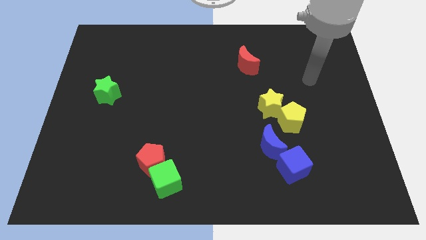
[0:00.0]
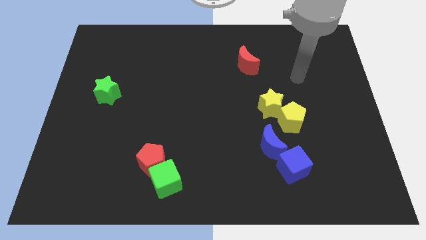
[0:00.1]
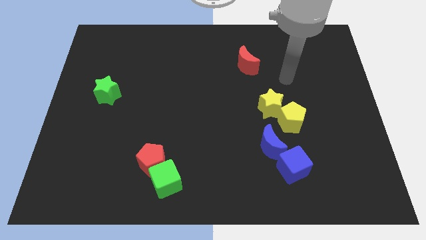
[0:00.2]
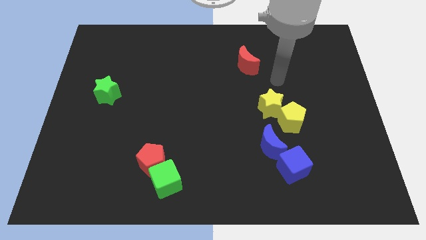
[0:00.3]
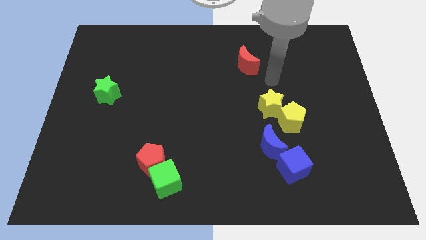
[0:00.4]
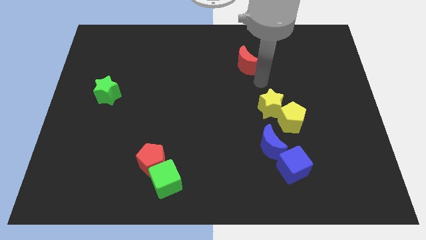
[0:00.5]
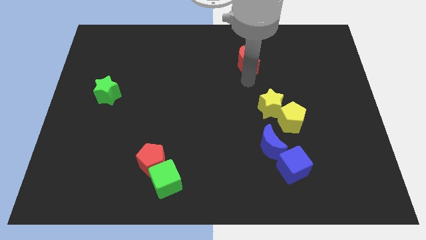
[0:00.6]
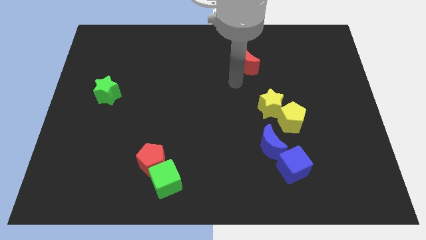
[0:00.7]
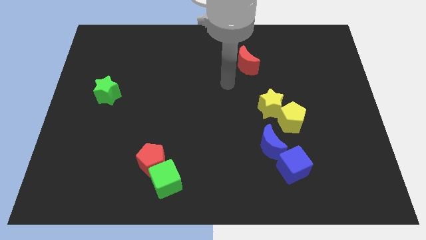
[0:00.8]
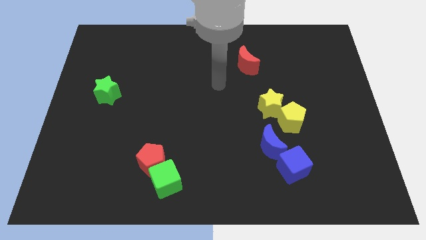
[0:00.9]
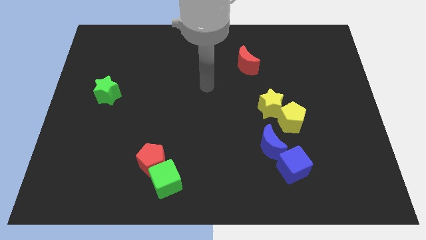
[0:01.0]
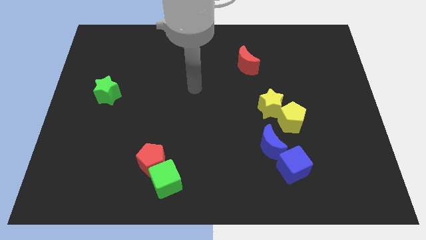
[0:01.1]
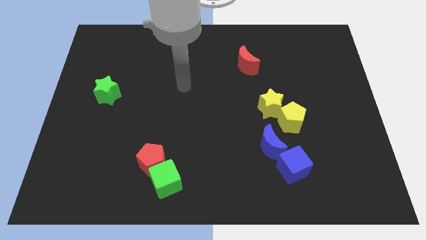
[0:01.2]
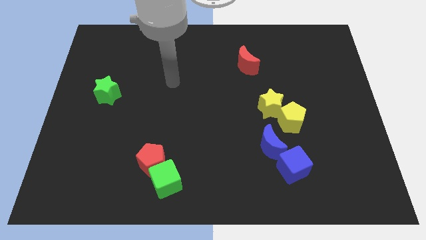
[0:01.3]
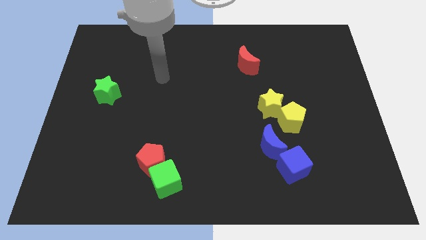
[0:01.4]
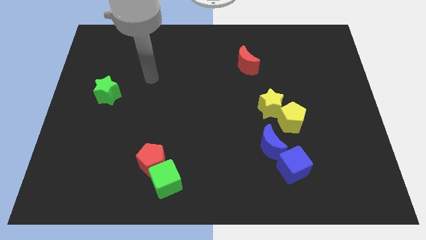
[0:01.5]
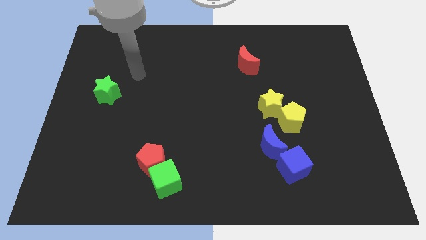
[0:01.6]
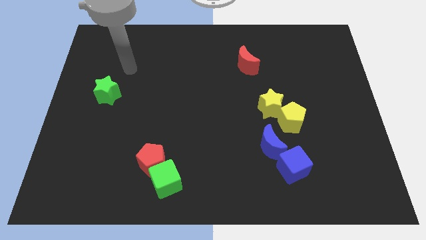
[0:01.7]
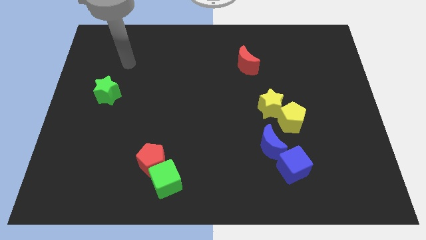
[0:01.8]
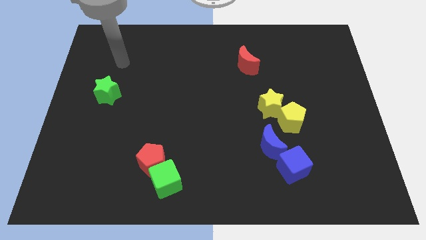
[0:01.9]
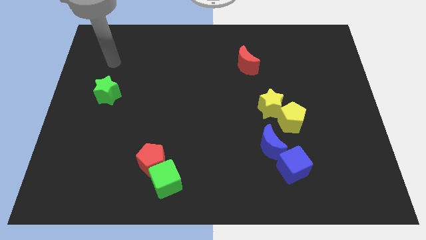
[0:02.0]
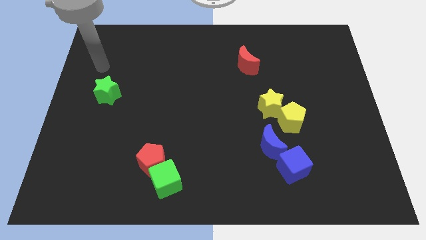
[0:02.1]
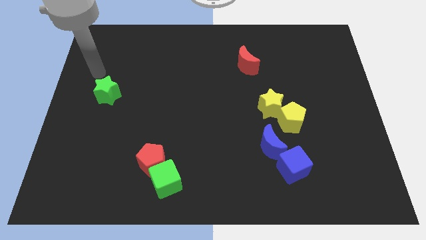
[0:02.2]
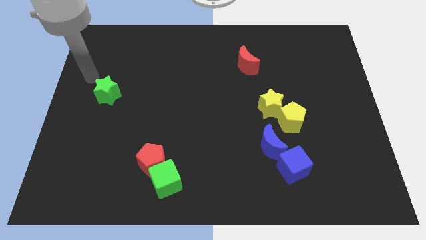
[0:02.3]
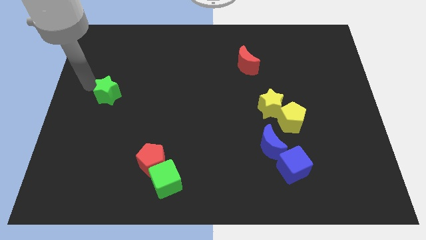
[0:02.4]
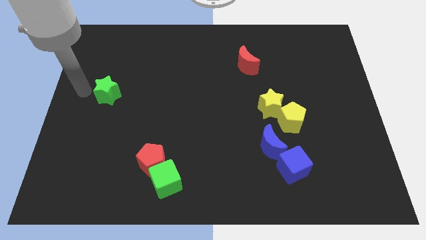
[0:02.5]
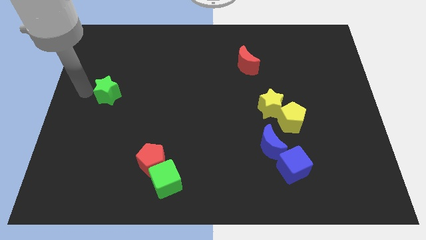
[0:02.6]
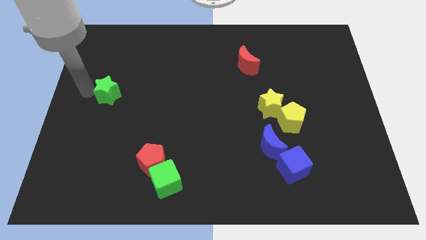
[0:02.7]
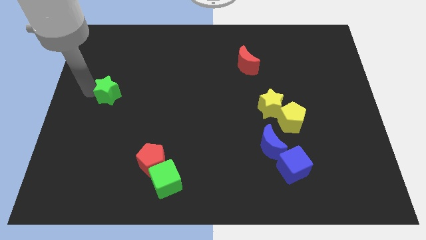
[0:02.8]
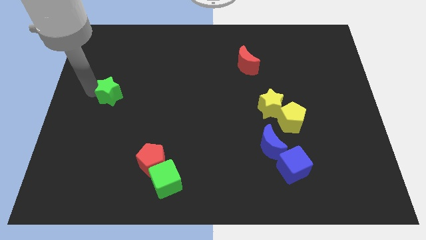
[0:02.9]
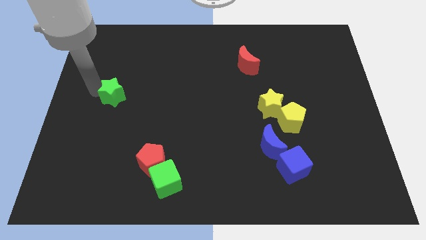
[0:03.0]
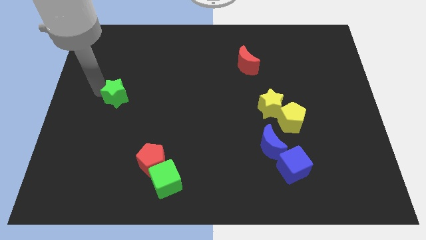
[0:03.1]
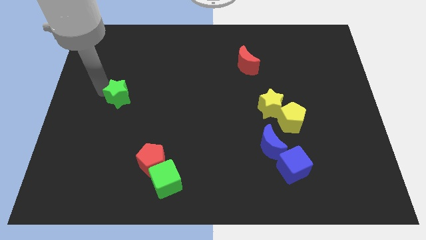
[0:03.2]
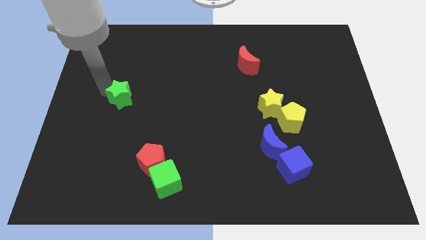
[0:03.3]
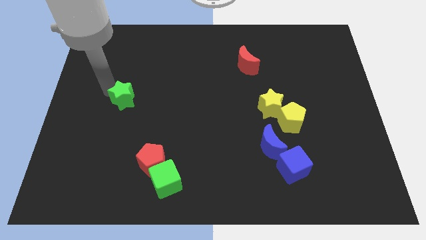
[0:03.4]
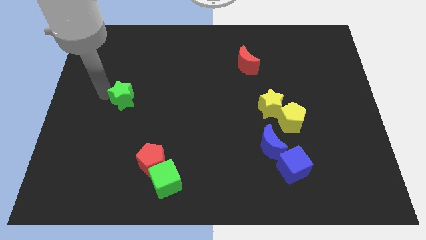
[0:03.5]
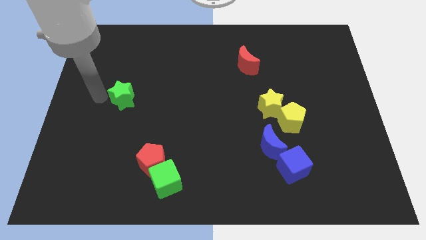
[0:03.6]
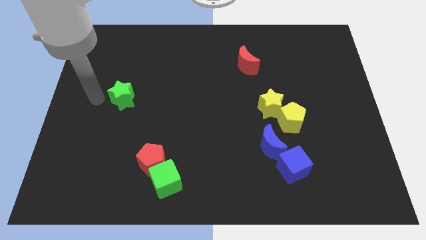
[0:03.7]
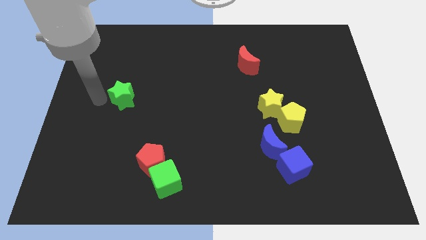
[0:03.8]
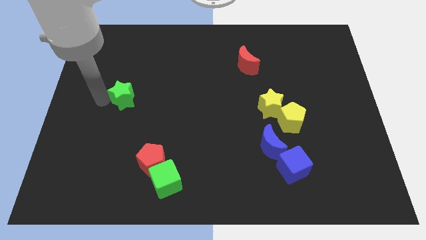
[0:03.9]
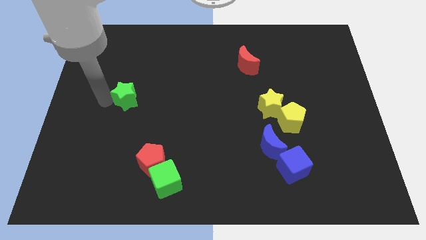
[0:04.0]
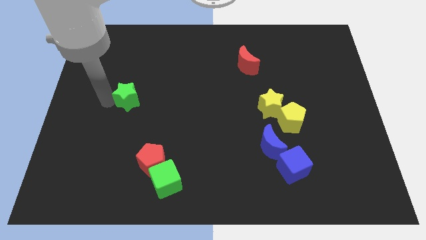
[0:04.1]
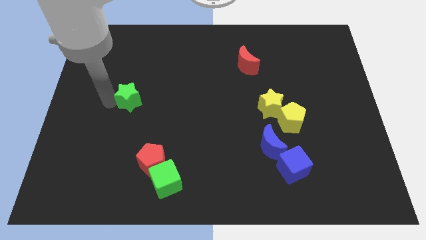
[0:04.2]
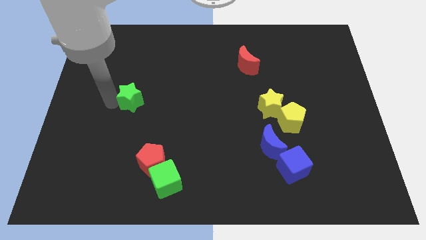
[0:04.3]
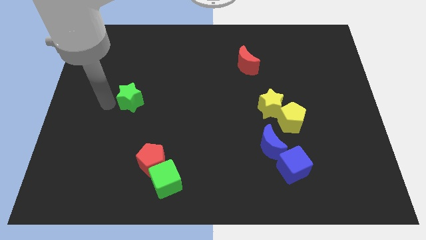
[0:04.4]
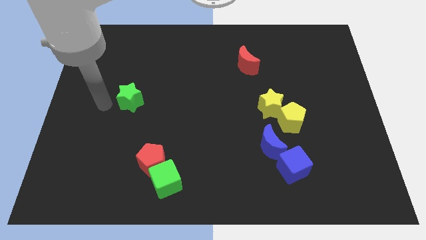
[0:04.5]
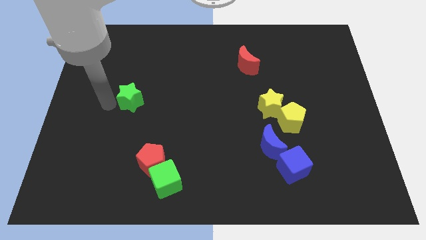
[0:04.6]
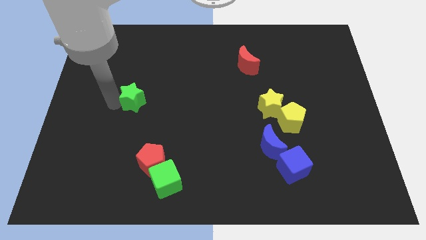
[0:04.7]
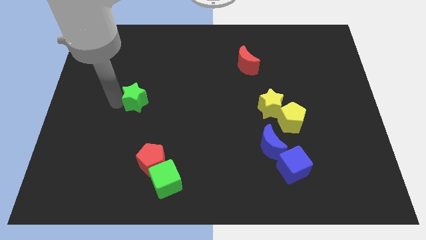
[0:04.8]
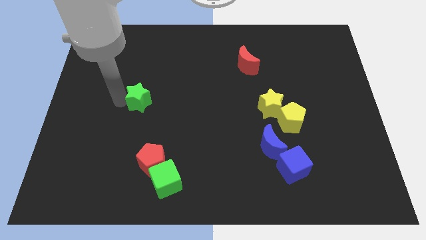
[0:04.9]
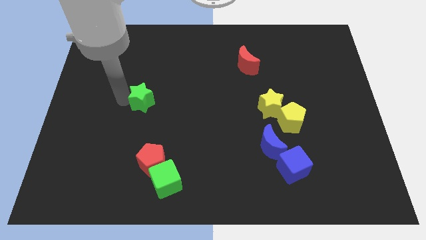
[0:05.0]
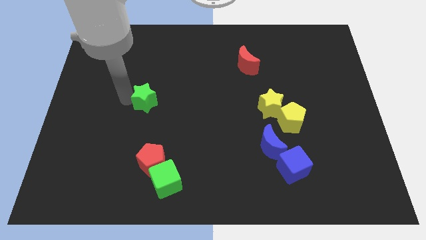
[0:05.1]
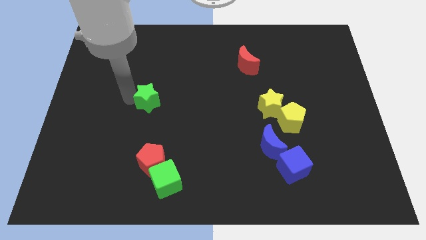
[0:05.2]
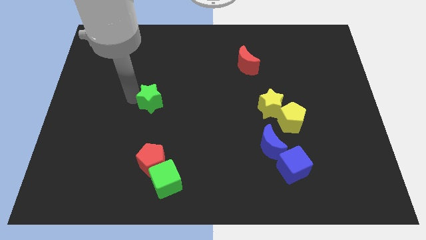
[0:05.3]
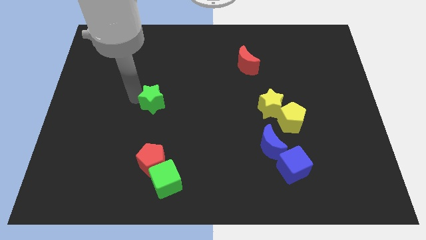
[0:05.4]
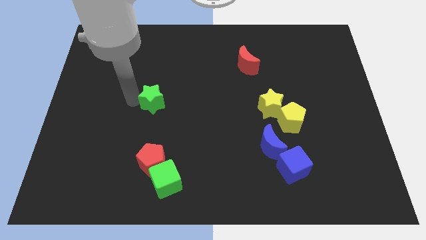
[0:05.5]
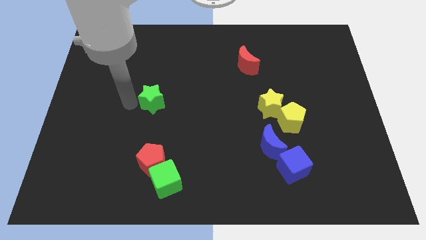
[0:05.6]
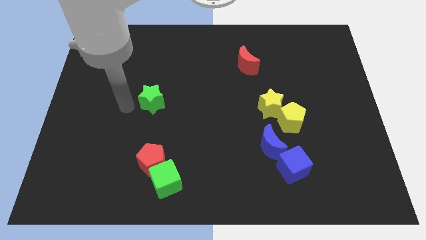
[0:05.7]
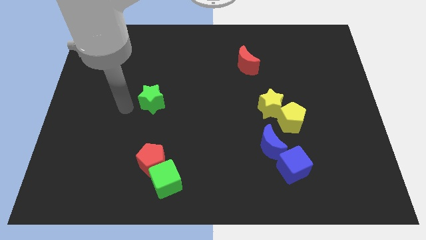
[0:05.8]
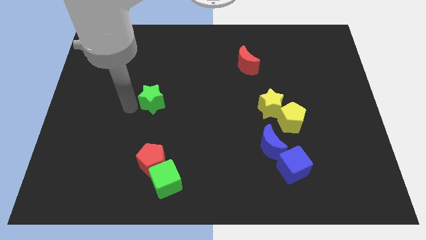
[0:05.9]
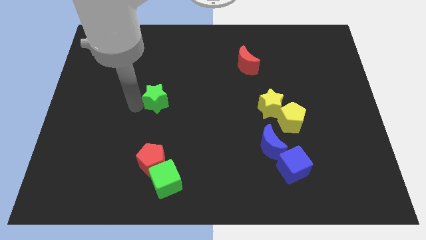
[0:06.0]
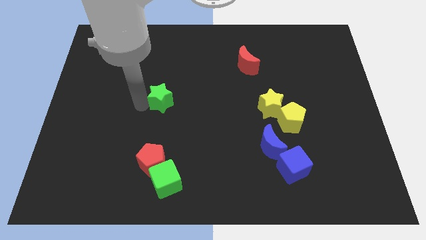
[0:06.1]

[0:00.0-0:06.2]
move the green star to the center

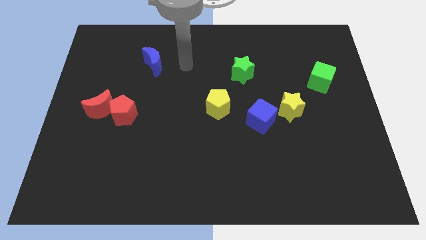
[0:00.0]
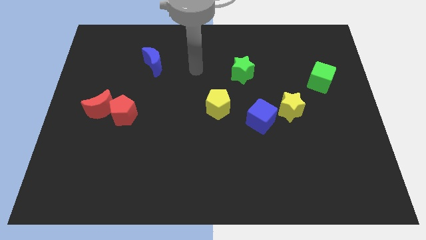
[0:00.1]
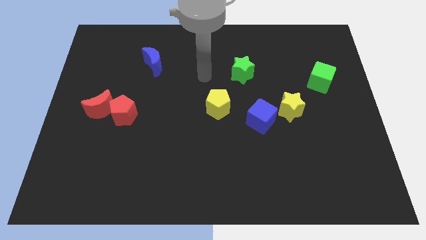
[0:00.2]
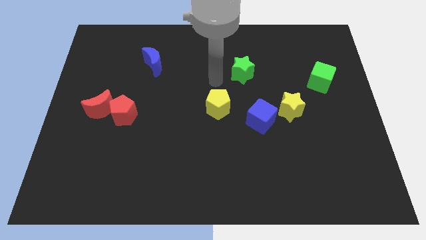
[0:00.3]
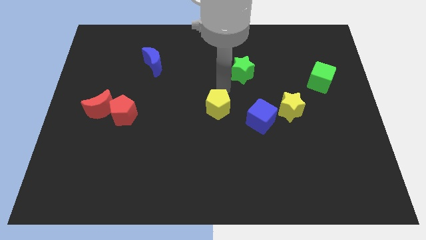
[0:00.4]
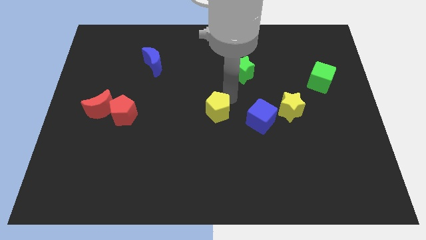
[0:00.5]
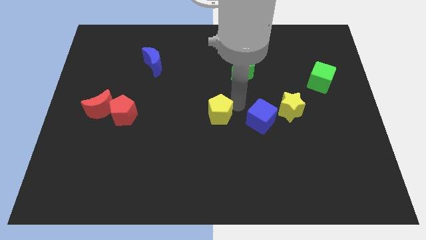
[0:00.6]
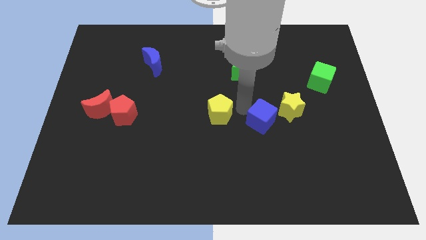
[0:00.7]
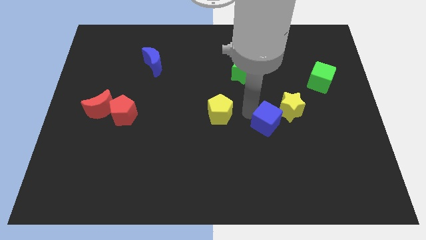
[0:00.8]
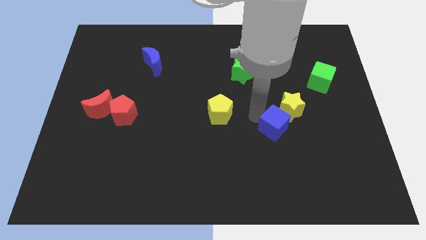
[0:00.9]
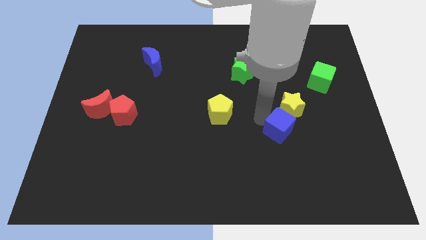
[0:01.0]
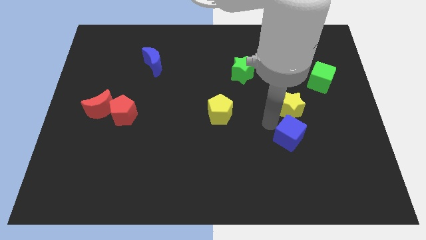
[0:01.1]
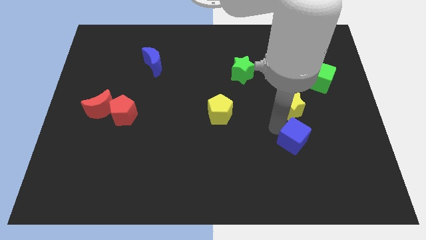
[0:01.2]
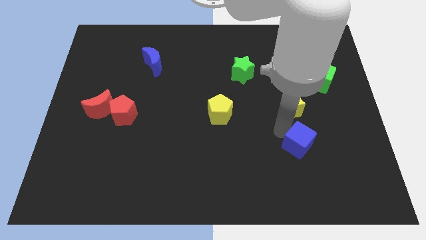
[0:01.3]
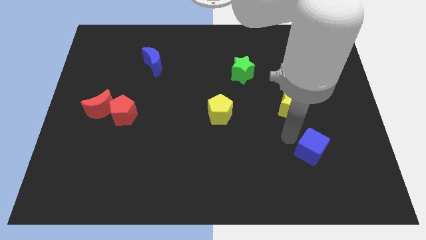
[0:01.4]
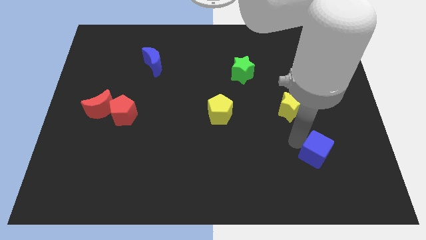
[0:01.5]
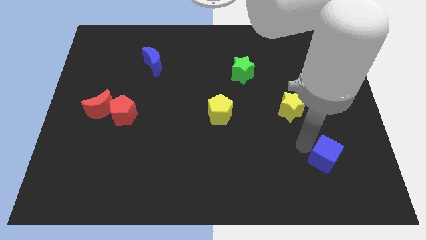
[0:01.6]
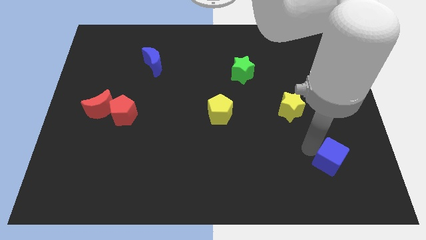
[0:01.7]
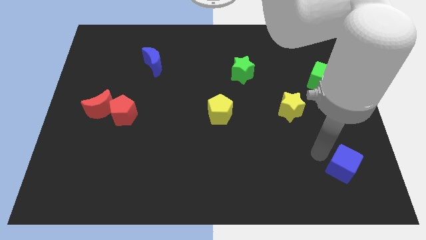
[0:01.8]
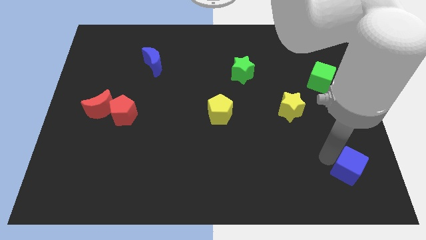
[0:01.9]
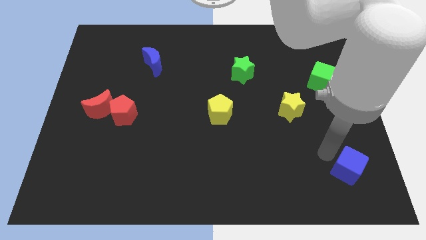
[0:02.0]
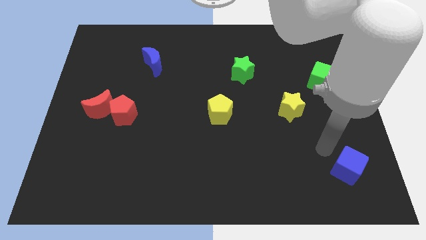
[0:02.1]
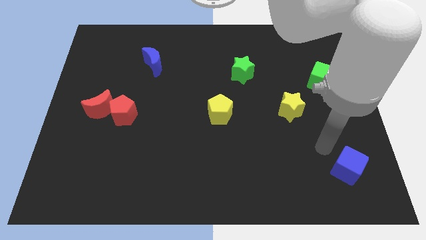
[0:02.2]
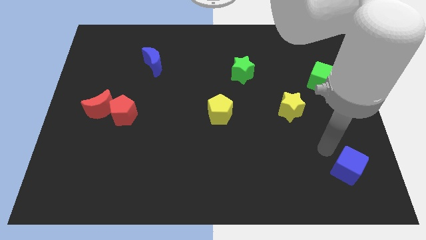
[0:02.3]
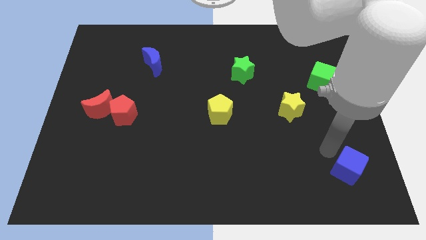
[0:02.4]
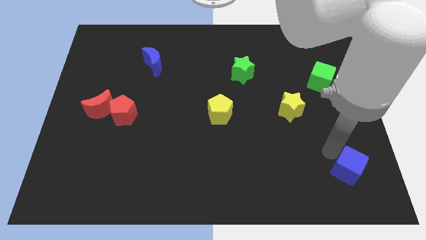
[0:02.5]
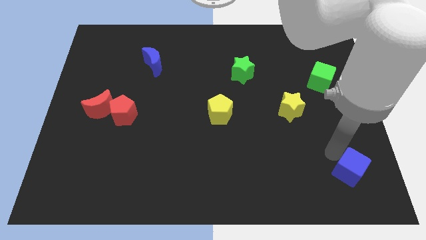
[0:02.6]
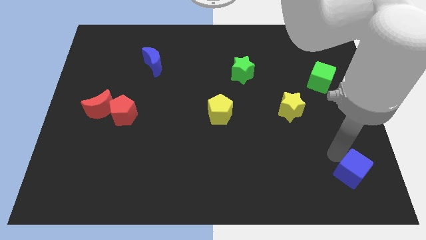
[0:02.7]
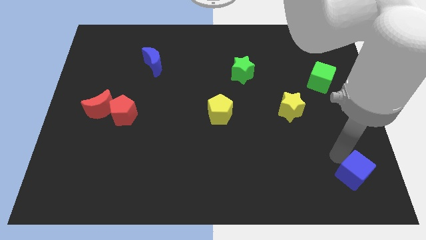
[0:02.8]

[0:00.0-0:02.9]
move the blue cube to the bottom right of the board
